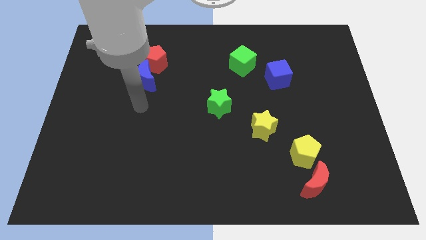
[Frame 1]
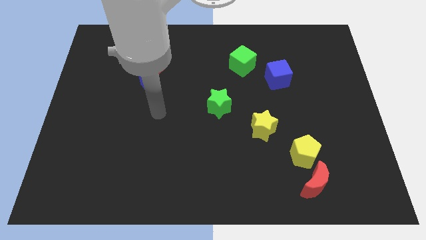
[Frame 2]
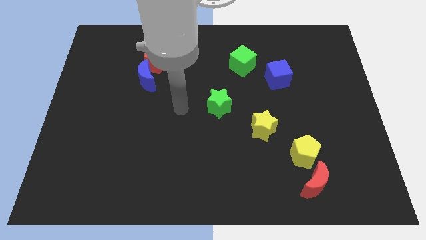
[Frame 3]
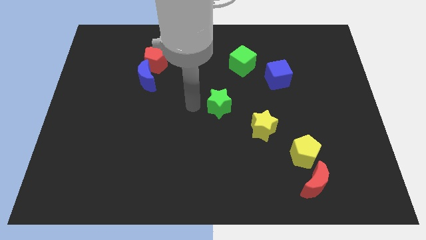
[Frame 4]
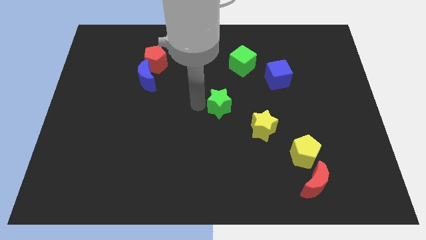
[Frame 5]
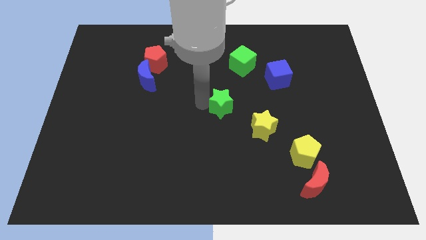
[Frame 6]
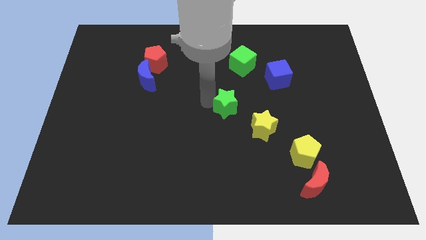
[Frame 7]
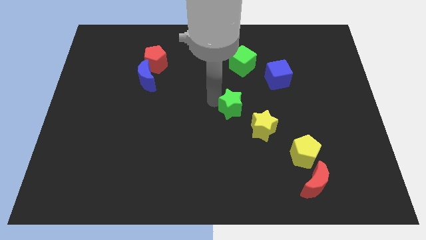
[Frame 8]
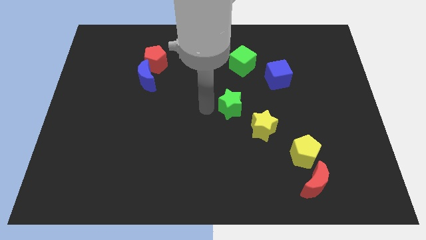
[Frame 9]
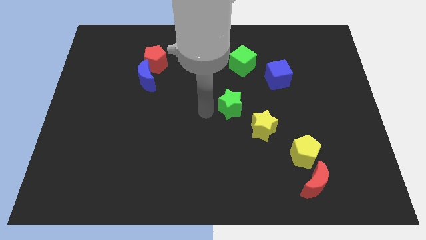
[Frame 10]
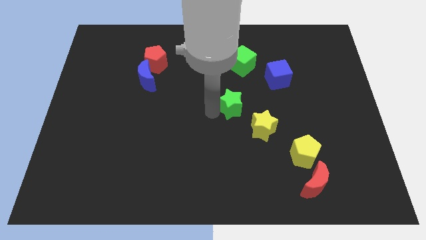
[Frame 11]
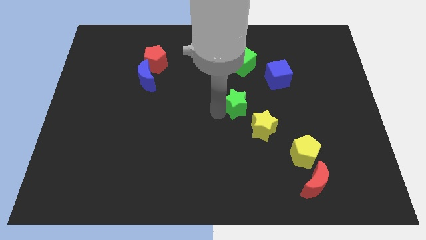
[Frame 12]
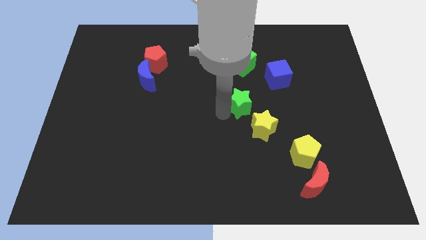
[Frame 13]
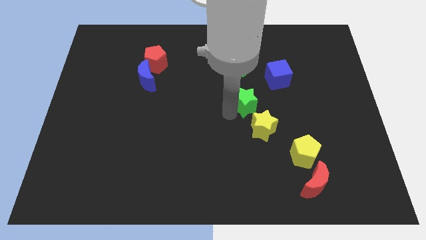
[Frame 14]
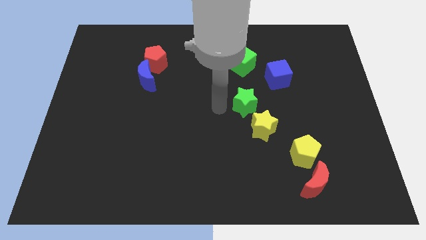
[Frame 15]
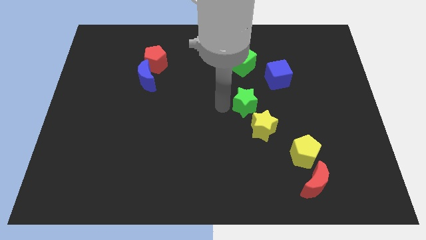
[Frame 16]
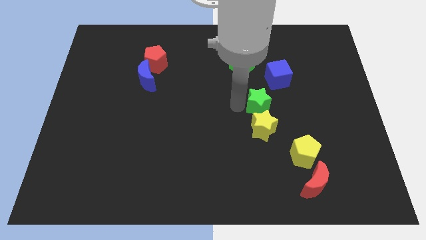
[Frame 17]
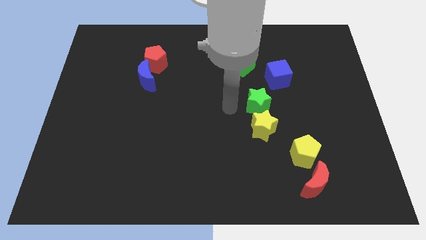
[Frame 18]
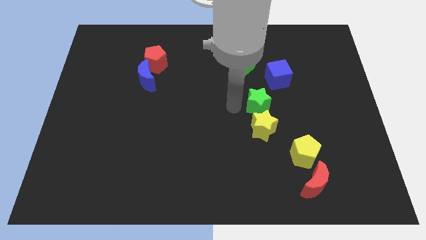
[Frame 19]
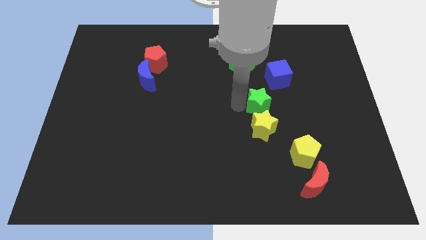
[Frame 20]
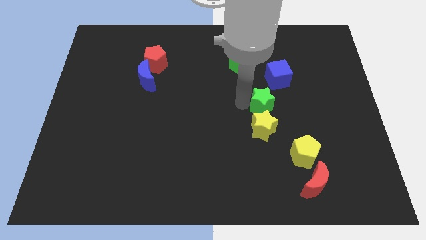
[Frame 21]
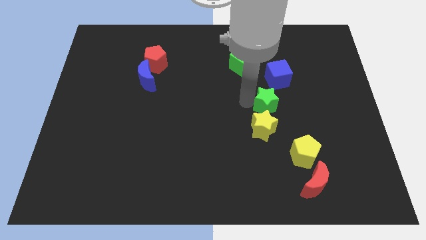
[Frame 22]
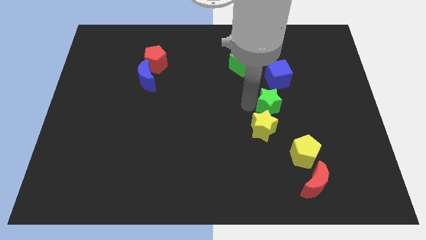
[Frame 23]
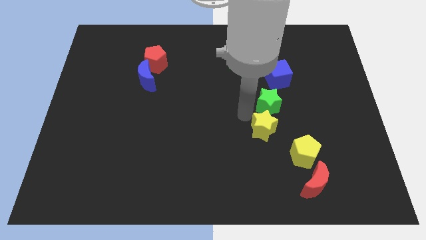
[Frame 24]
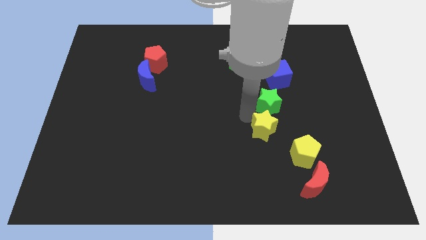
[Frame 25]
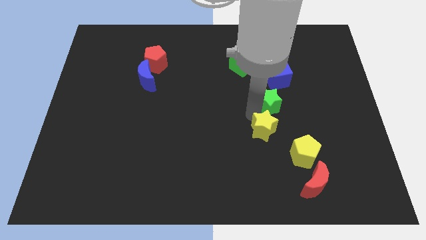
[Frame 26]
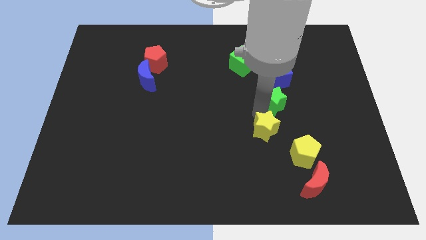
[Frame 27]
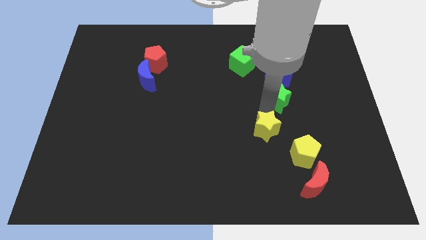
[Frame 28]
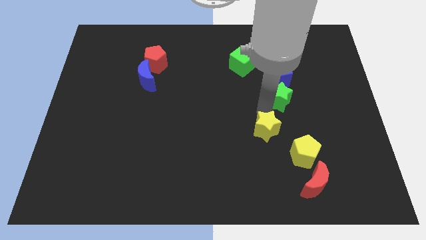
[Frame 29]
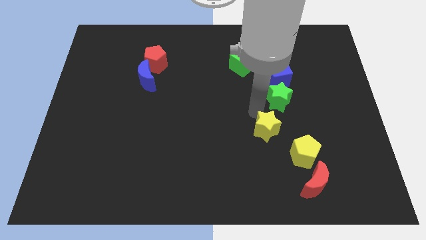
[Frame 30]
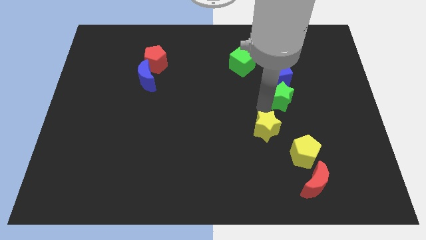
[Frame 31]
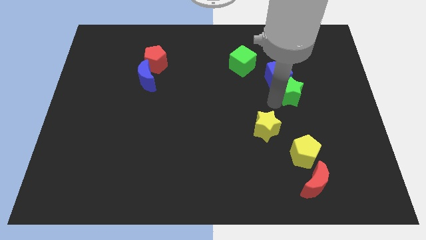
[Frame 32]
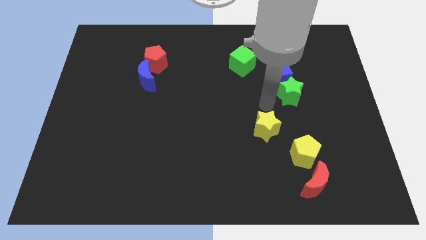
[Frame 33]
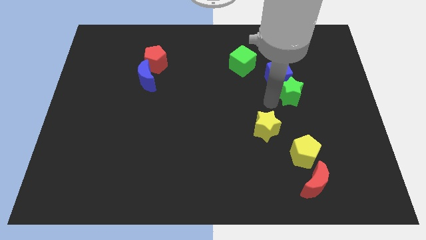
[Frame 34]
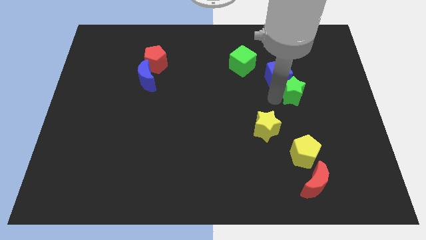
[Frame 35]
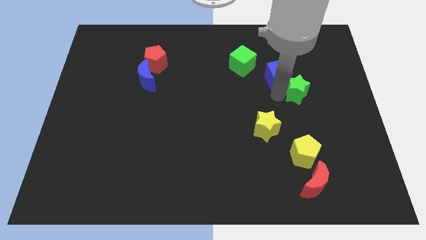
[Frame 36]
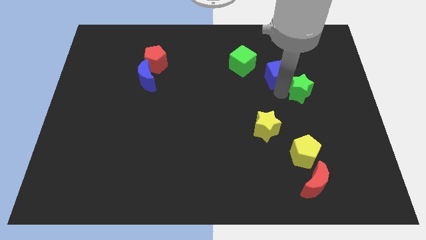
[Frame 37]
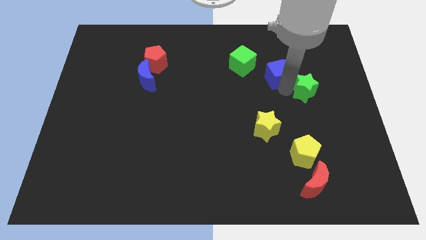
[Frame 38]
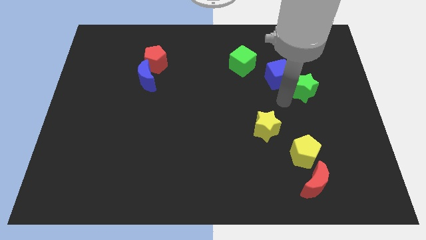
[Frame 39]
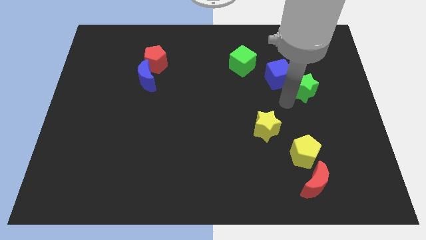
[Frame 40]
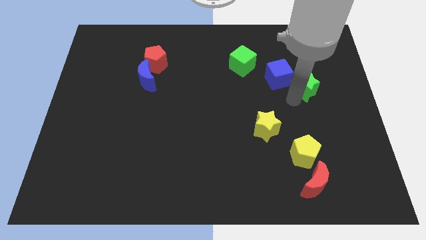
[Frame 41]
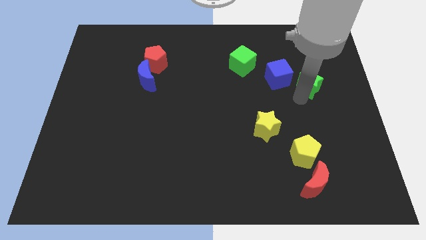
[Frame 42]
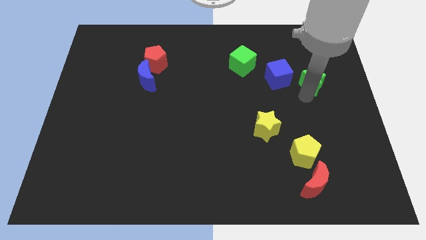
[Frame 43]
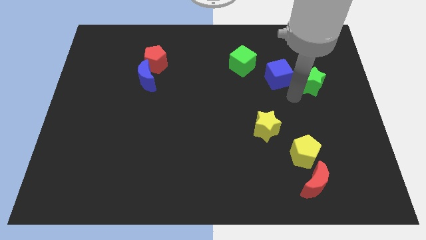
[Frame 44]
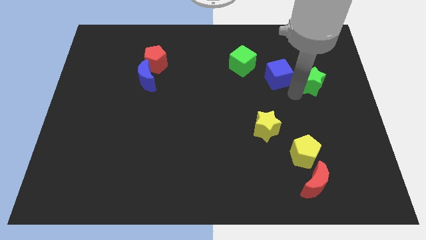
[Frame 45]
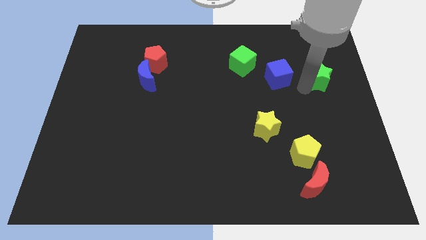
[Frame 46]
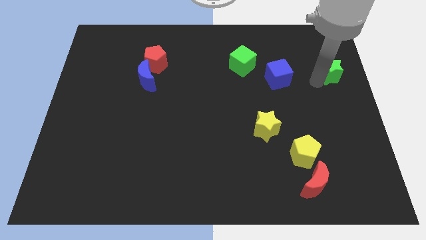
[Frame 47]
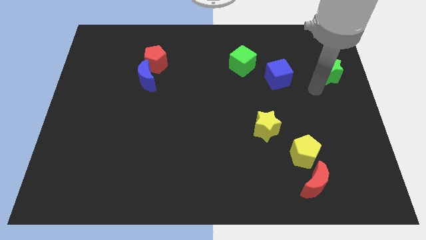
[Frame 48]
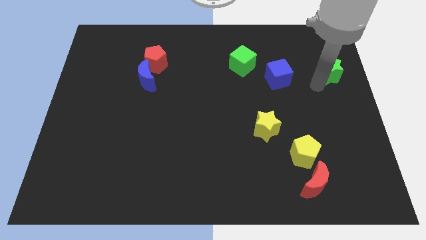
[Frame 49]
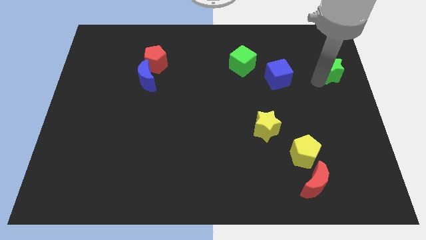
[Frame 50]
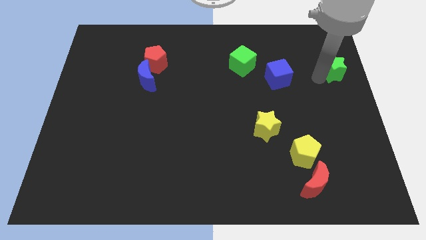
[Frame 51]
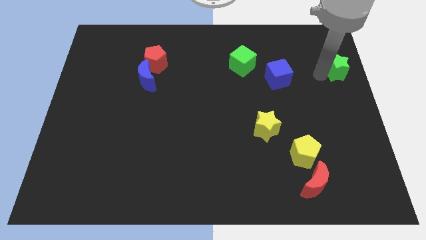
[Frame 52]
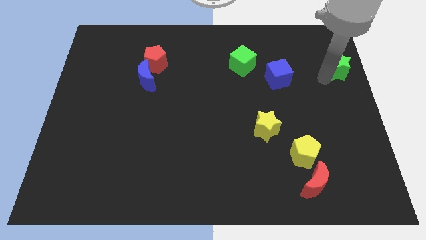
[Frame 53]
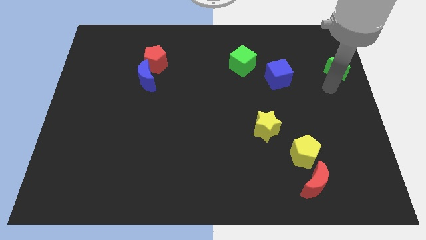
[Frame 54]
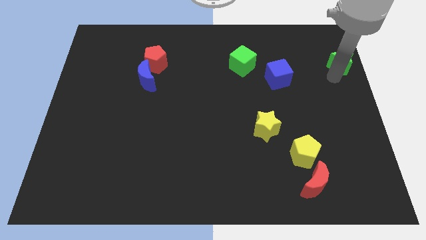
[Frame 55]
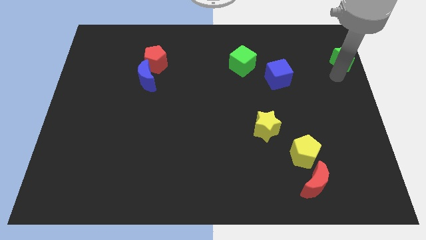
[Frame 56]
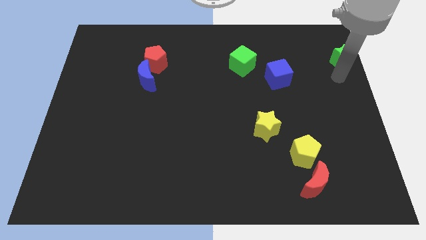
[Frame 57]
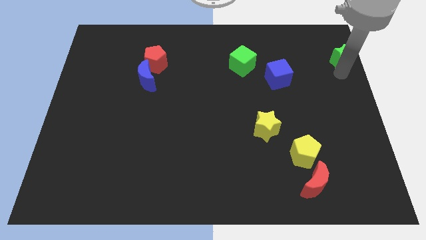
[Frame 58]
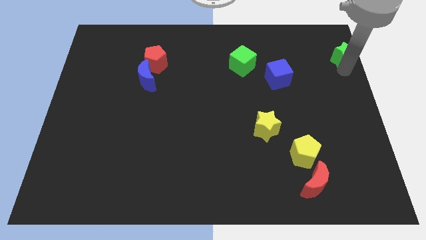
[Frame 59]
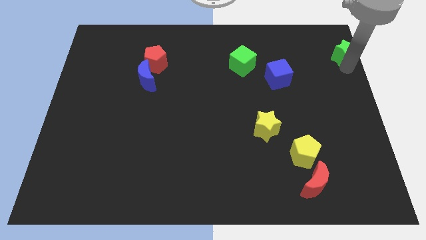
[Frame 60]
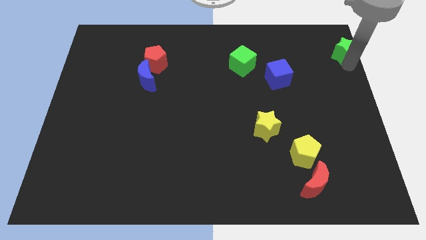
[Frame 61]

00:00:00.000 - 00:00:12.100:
put the green star to the top right of the board
